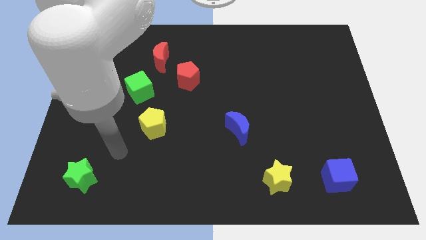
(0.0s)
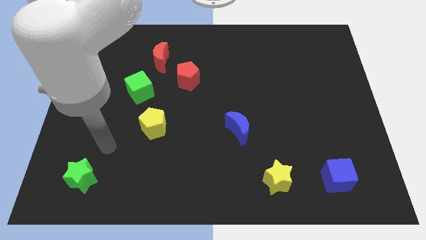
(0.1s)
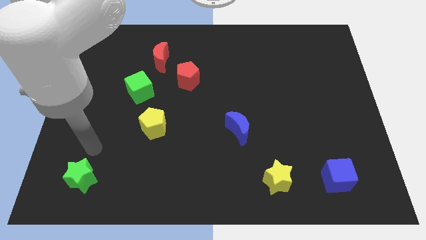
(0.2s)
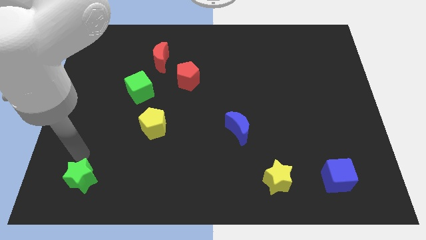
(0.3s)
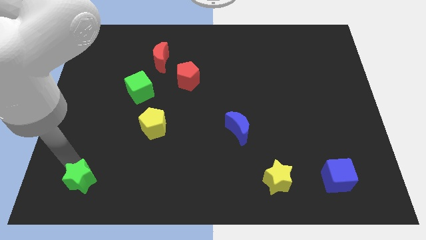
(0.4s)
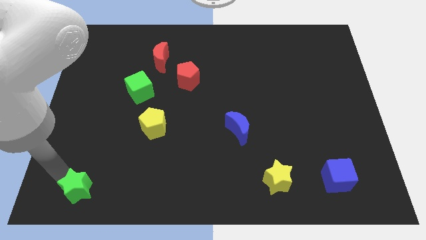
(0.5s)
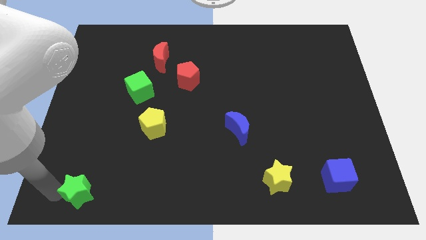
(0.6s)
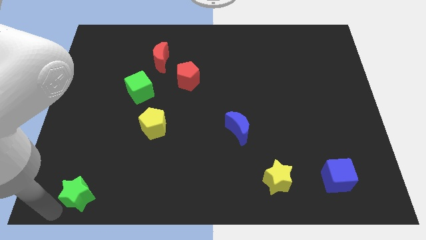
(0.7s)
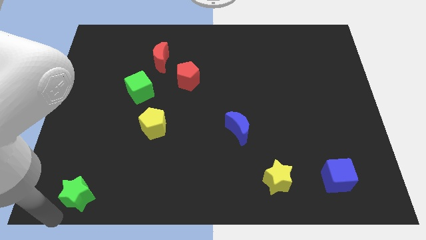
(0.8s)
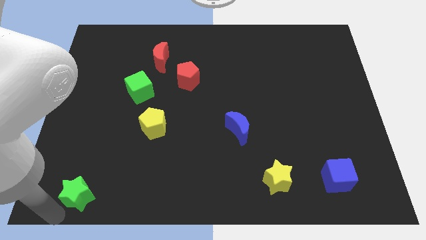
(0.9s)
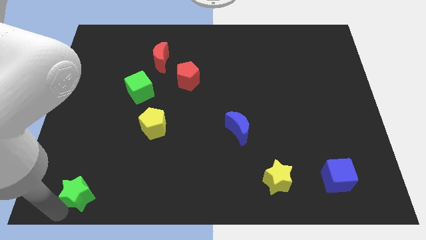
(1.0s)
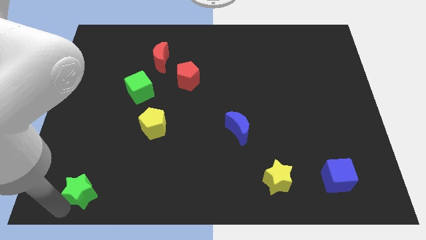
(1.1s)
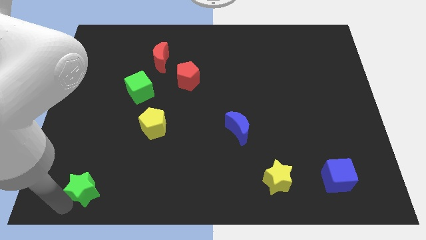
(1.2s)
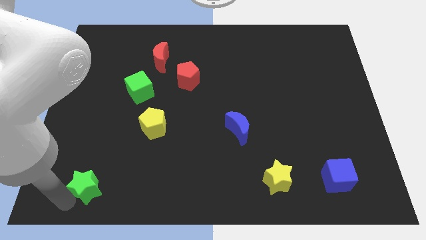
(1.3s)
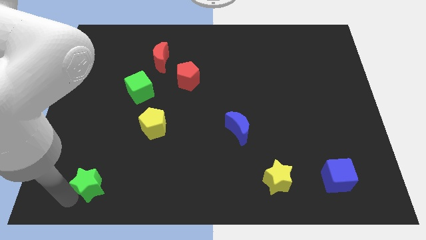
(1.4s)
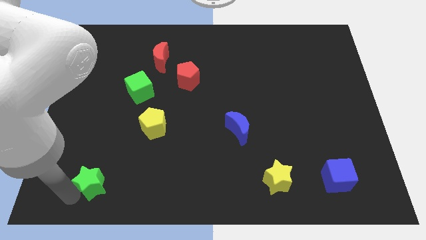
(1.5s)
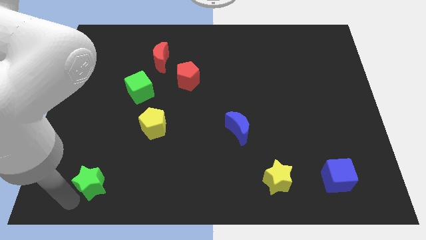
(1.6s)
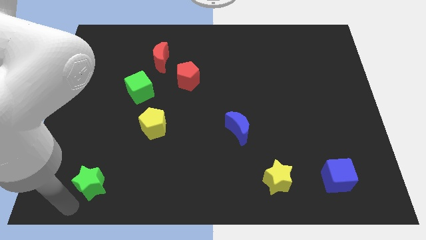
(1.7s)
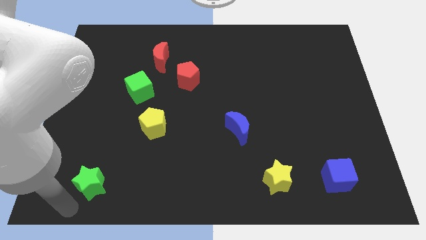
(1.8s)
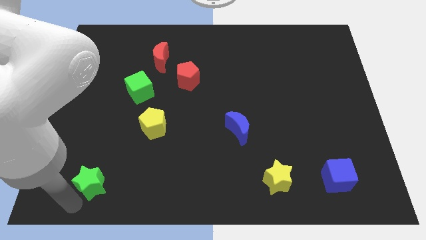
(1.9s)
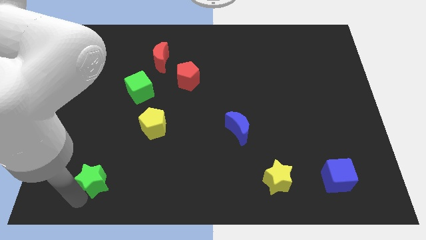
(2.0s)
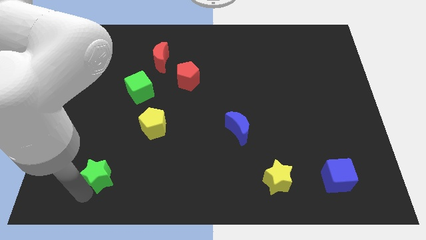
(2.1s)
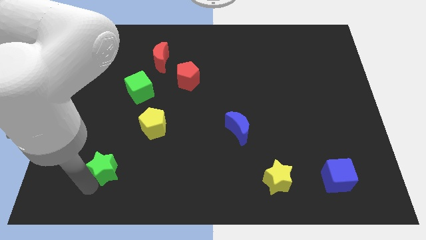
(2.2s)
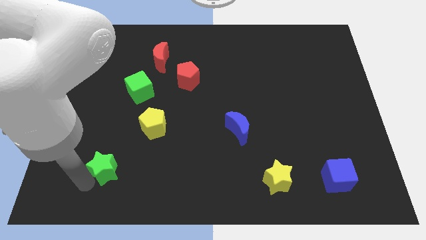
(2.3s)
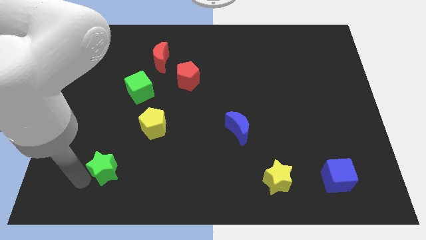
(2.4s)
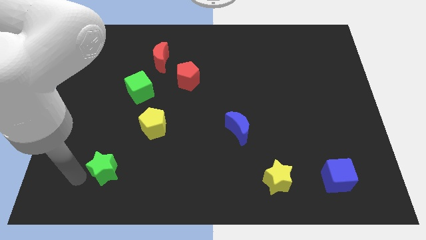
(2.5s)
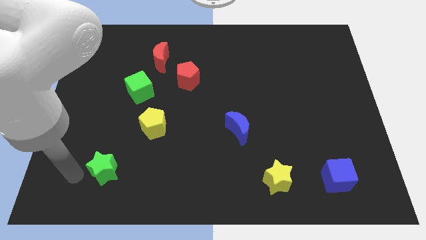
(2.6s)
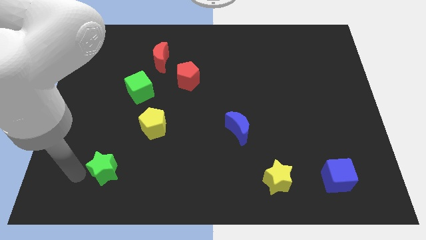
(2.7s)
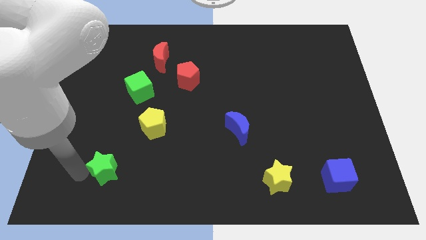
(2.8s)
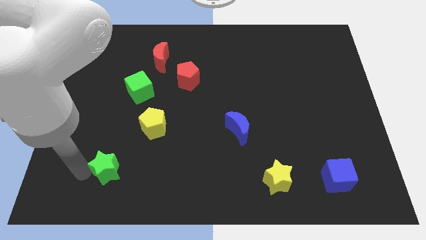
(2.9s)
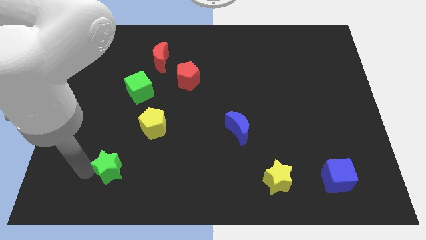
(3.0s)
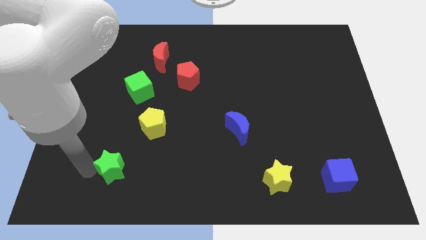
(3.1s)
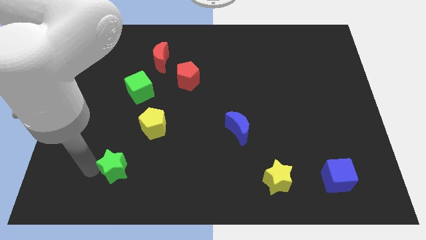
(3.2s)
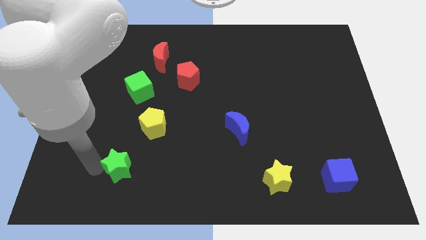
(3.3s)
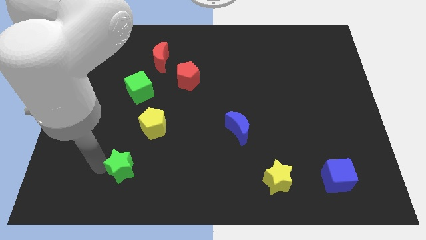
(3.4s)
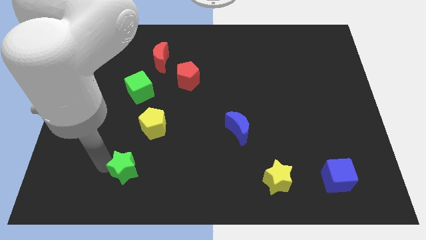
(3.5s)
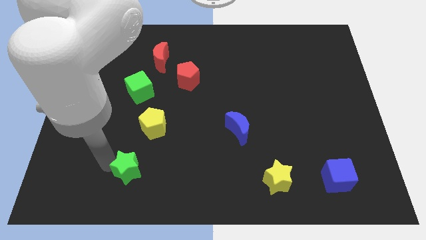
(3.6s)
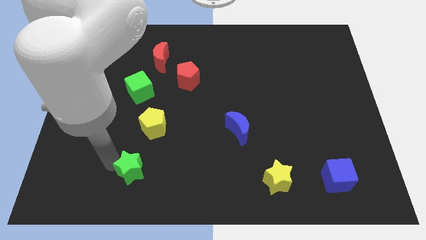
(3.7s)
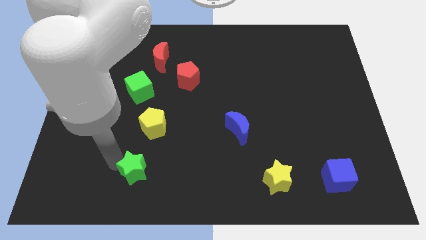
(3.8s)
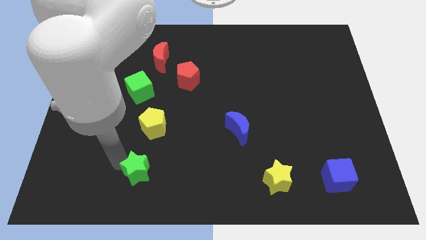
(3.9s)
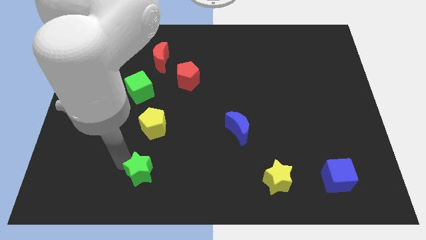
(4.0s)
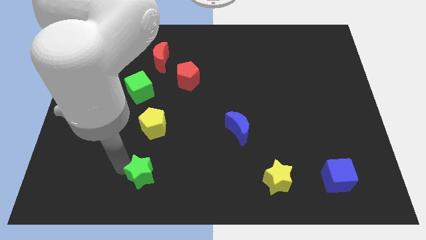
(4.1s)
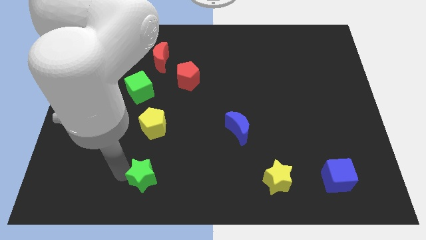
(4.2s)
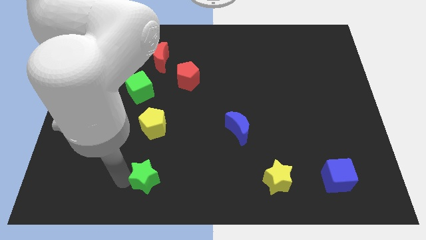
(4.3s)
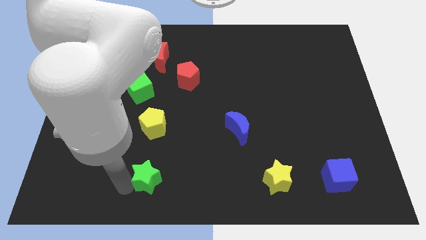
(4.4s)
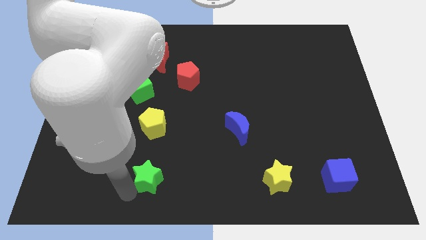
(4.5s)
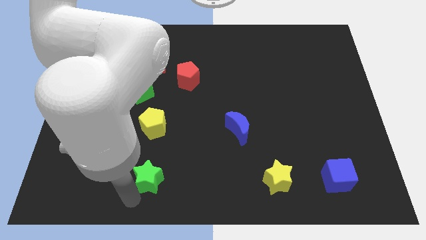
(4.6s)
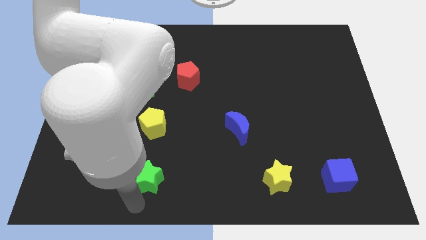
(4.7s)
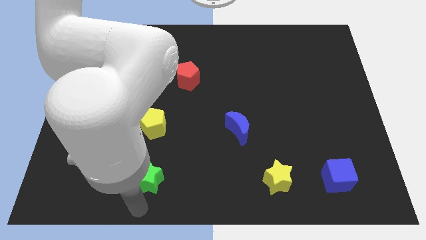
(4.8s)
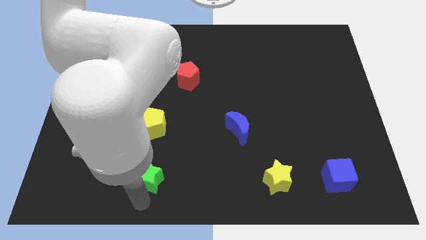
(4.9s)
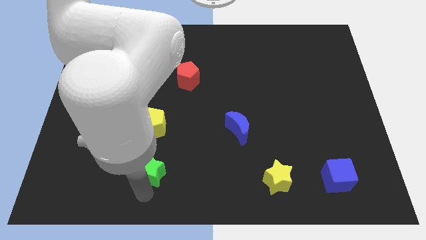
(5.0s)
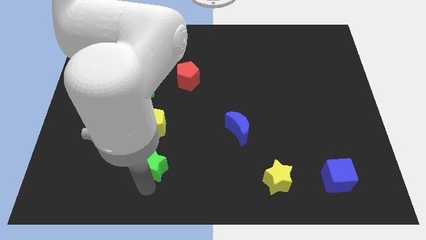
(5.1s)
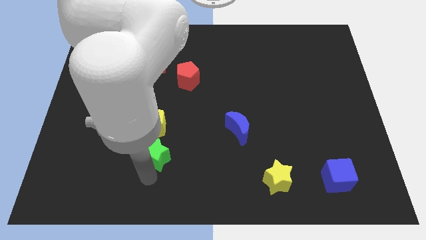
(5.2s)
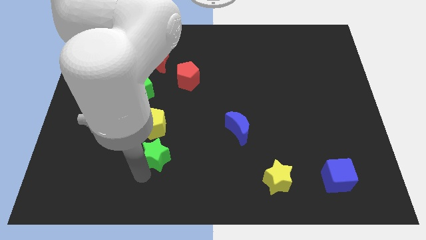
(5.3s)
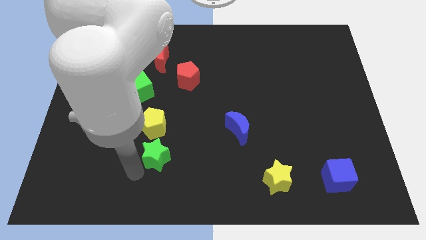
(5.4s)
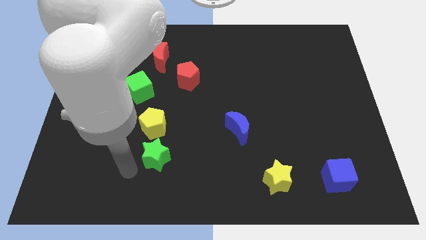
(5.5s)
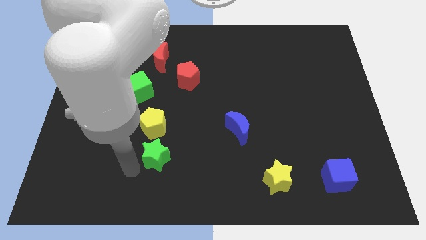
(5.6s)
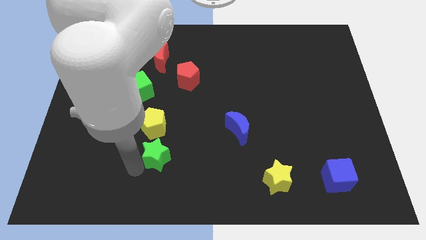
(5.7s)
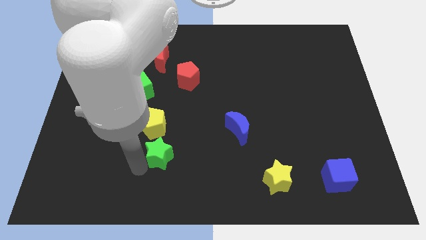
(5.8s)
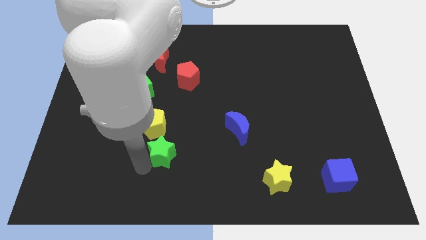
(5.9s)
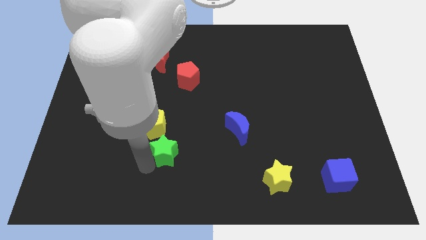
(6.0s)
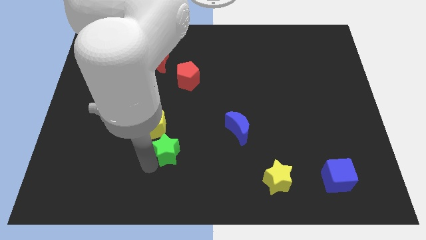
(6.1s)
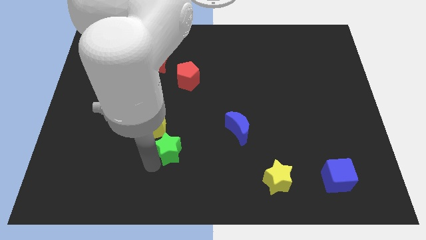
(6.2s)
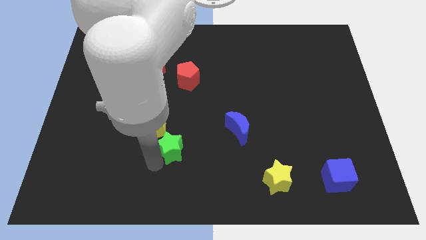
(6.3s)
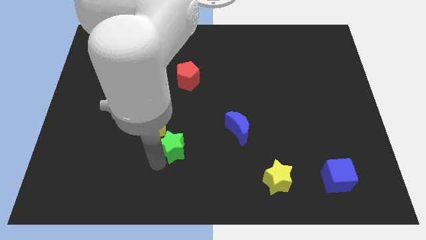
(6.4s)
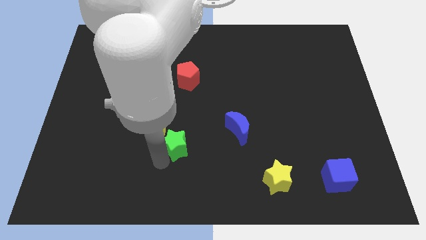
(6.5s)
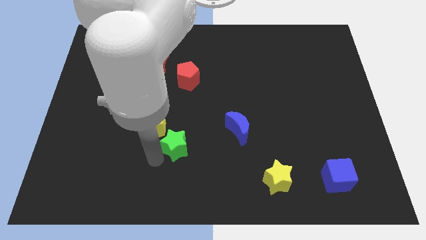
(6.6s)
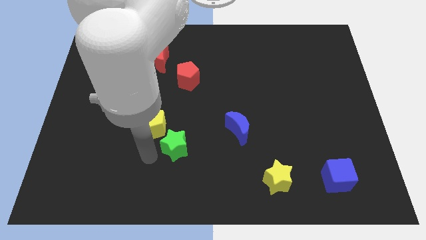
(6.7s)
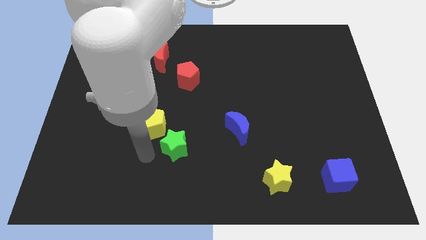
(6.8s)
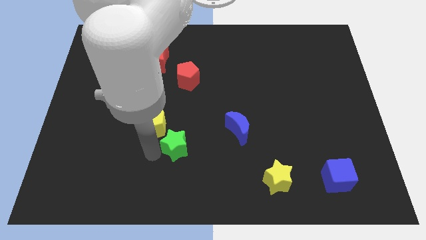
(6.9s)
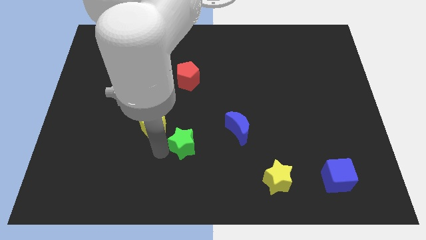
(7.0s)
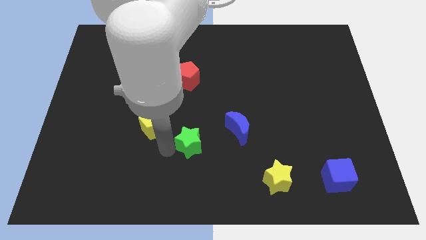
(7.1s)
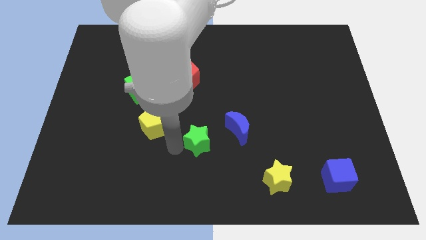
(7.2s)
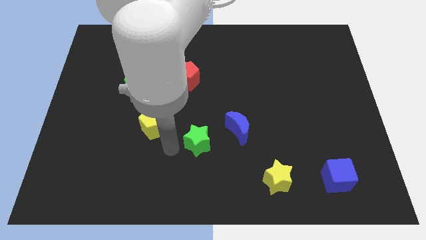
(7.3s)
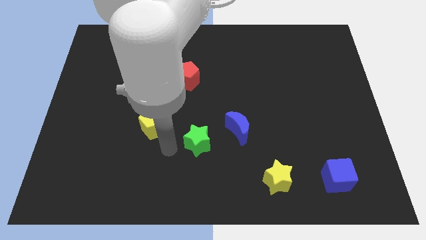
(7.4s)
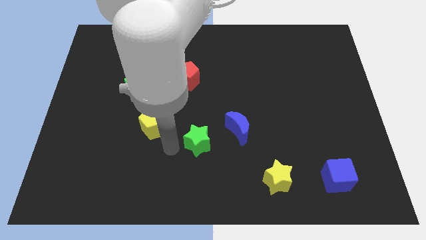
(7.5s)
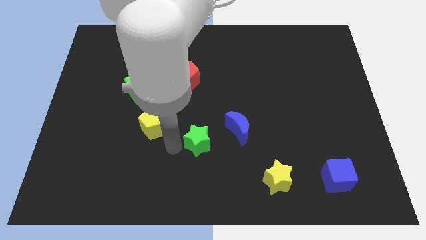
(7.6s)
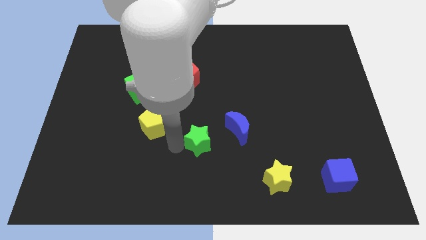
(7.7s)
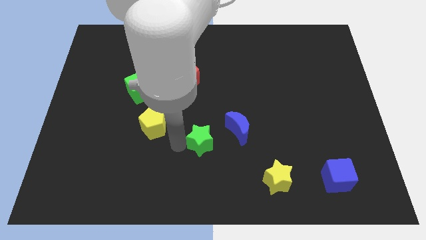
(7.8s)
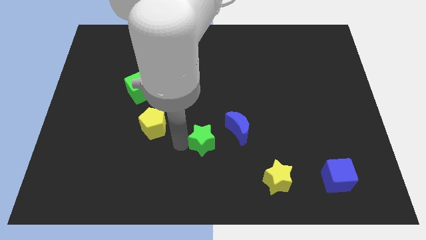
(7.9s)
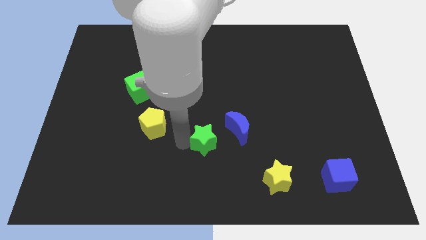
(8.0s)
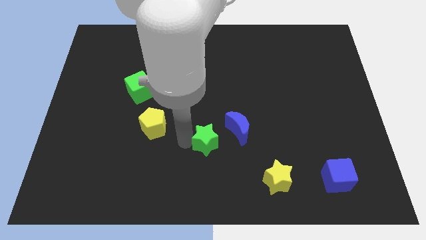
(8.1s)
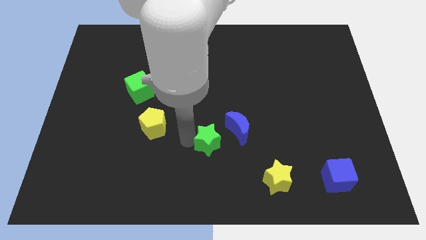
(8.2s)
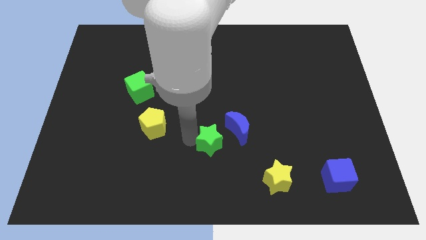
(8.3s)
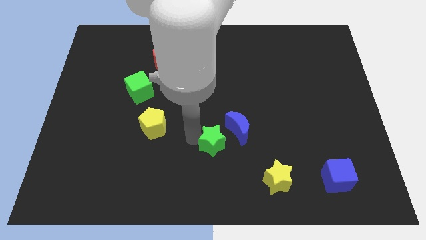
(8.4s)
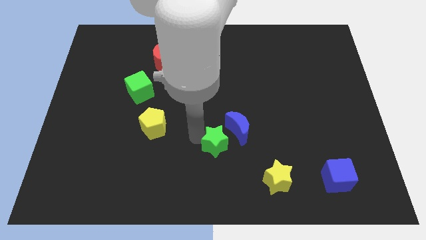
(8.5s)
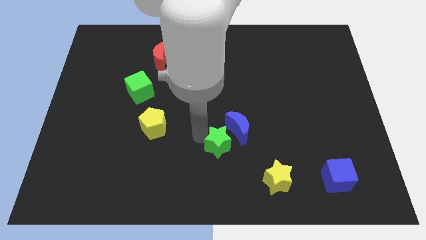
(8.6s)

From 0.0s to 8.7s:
put the green star to the blue moon
